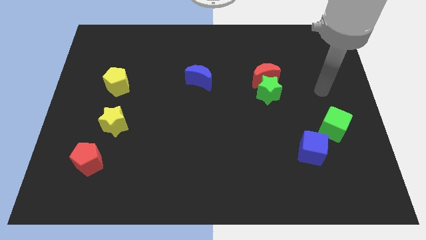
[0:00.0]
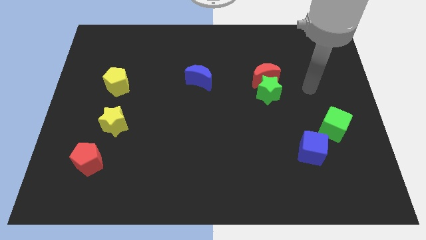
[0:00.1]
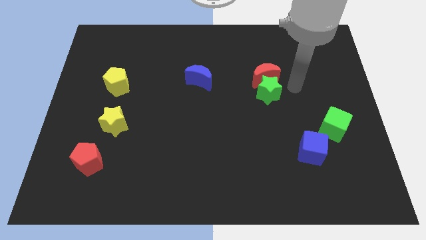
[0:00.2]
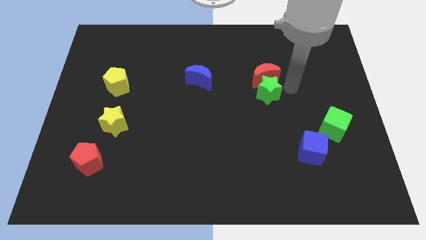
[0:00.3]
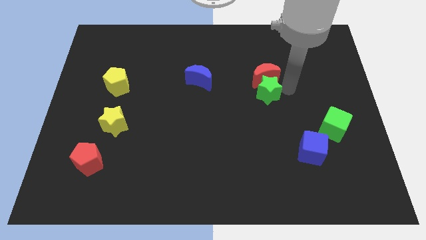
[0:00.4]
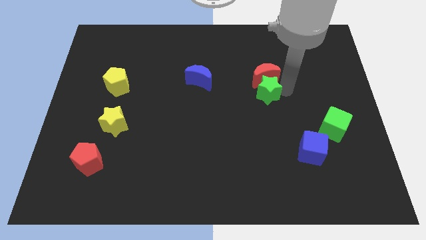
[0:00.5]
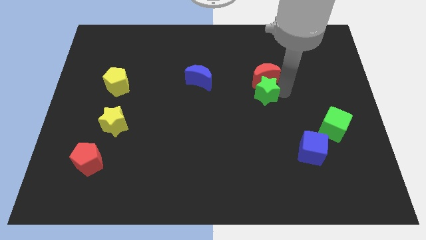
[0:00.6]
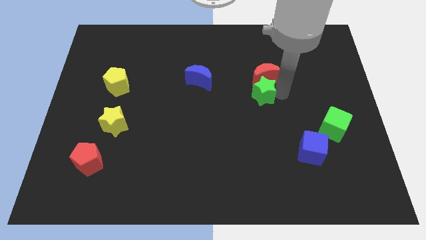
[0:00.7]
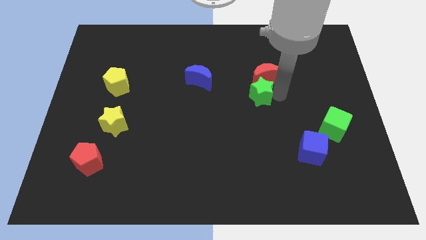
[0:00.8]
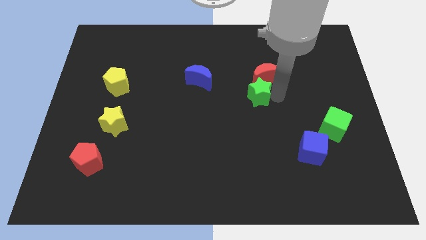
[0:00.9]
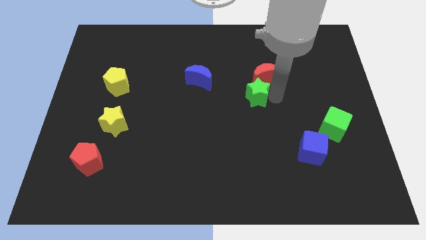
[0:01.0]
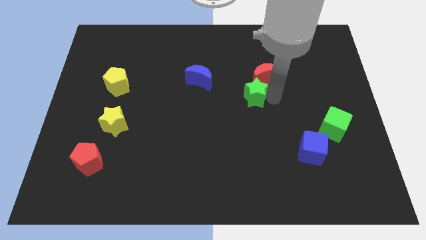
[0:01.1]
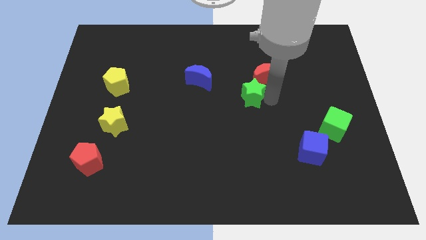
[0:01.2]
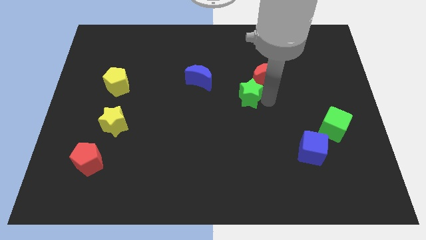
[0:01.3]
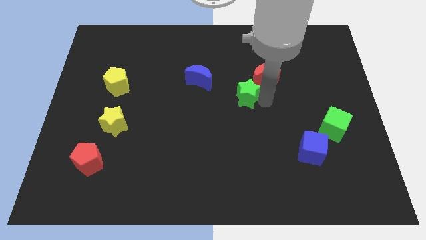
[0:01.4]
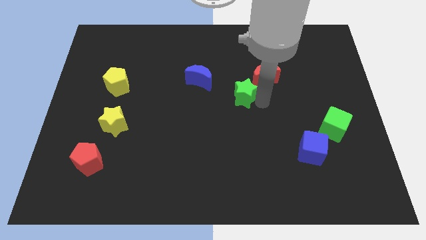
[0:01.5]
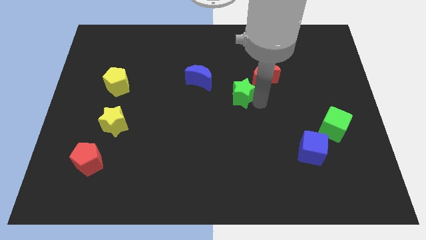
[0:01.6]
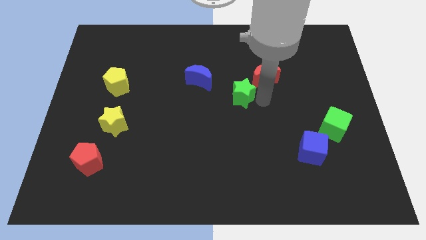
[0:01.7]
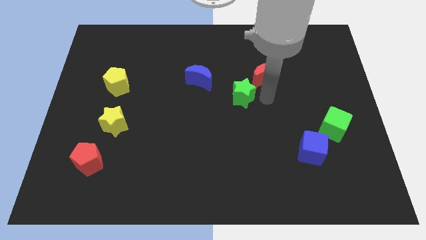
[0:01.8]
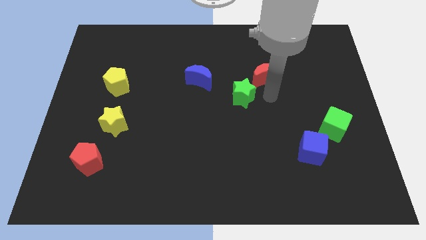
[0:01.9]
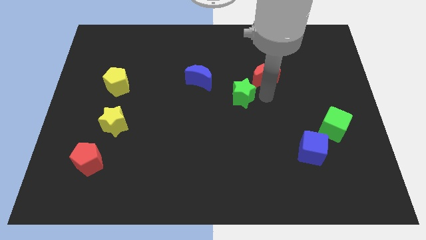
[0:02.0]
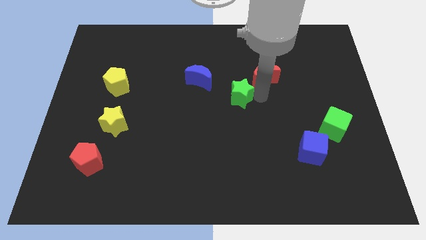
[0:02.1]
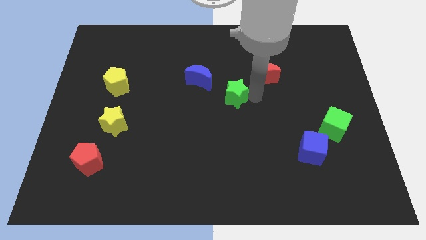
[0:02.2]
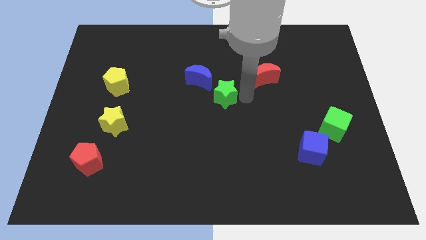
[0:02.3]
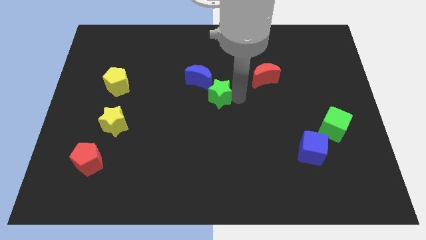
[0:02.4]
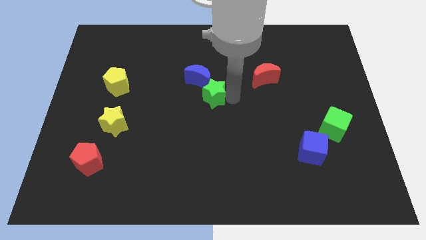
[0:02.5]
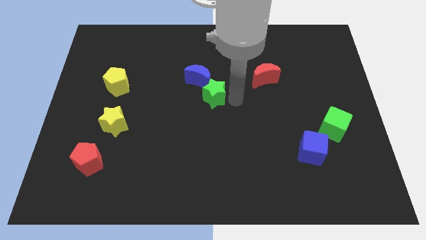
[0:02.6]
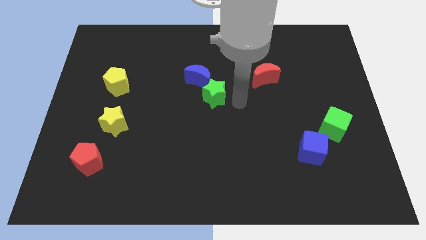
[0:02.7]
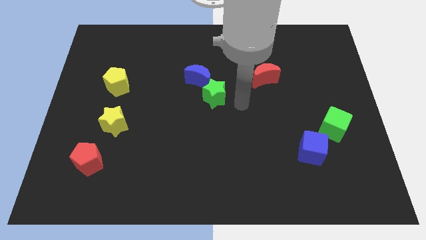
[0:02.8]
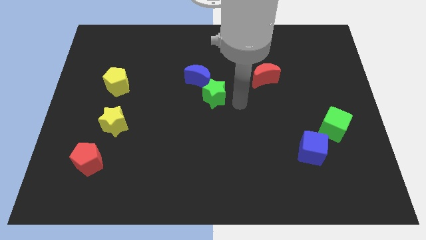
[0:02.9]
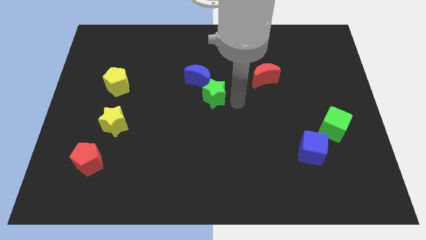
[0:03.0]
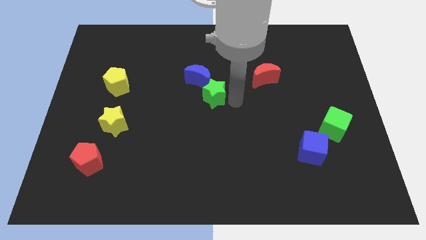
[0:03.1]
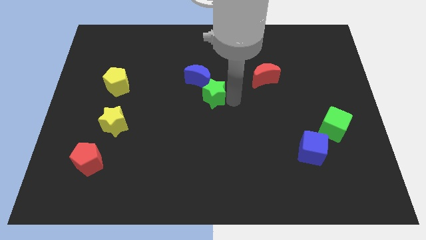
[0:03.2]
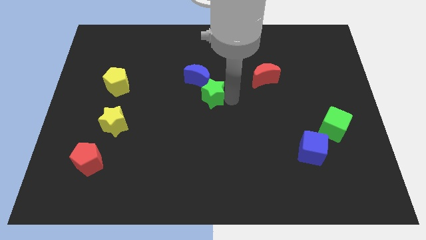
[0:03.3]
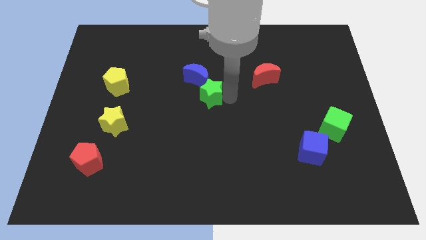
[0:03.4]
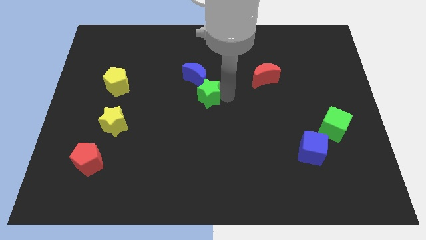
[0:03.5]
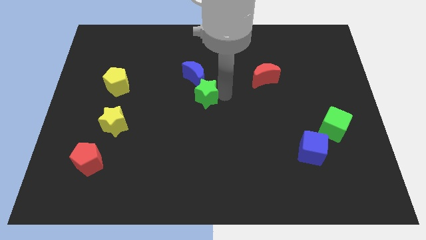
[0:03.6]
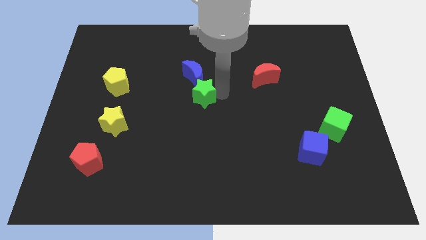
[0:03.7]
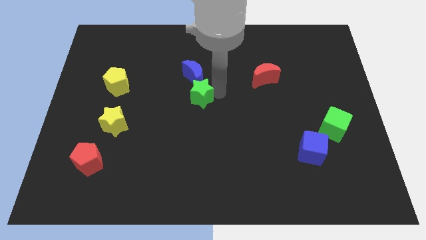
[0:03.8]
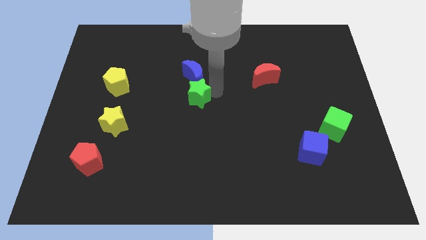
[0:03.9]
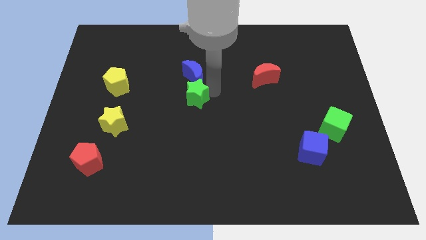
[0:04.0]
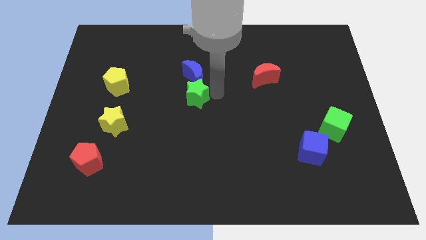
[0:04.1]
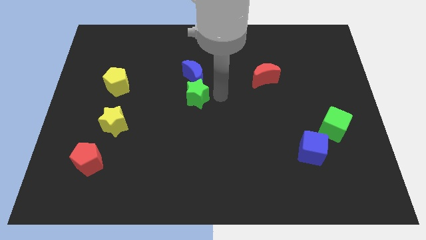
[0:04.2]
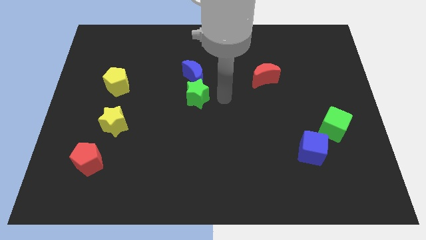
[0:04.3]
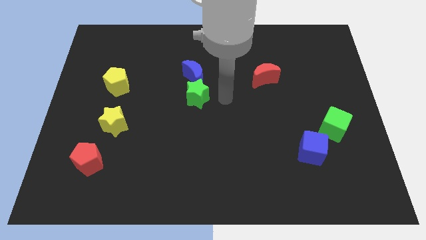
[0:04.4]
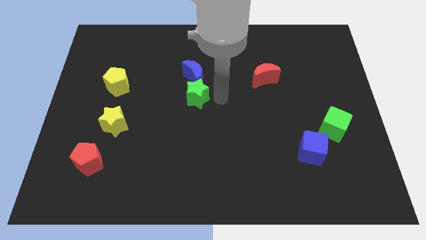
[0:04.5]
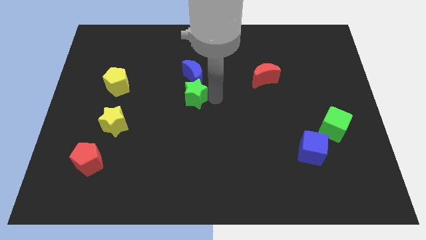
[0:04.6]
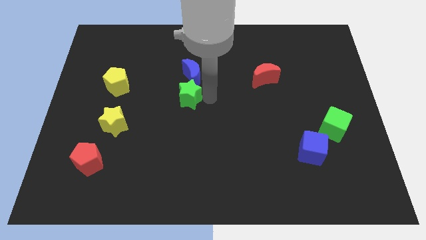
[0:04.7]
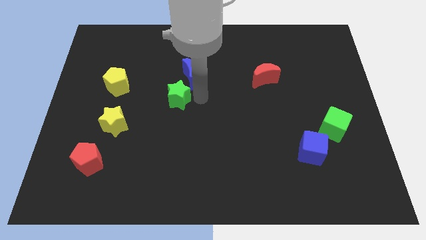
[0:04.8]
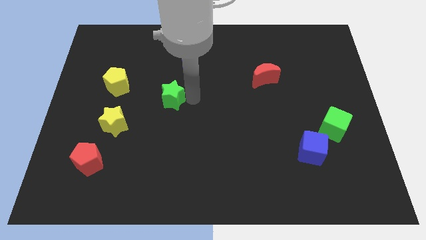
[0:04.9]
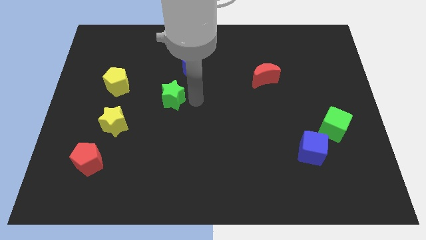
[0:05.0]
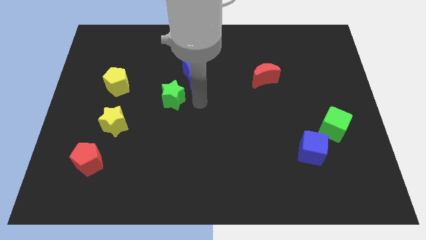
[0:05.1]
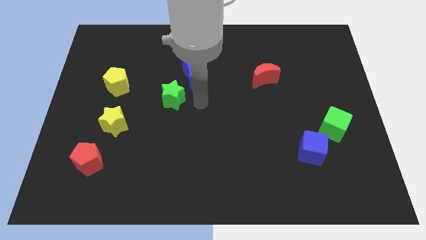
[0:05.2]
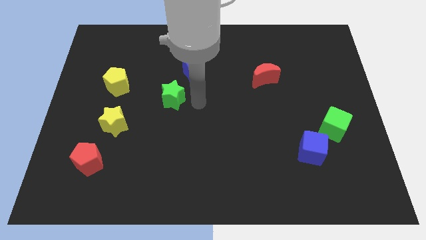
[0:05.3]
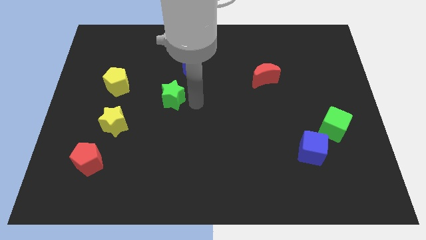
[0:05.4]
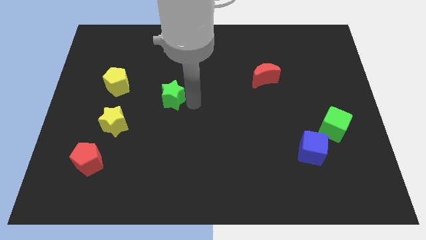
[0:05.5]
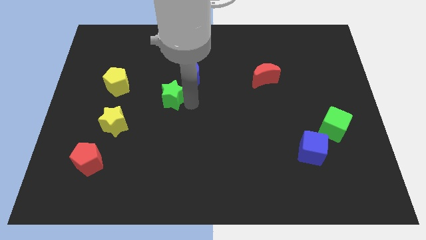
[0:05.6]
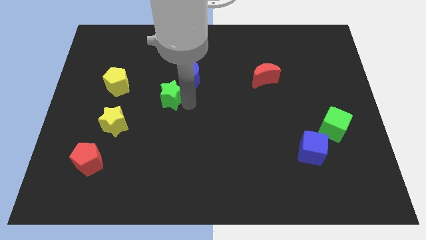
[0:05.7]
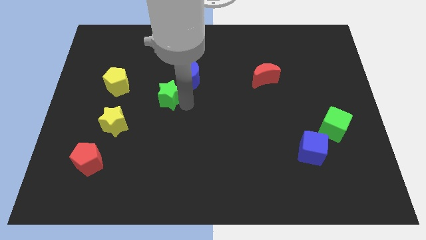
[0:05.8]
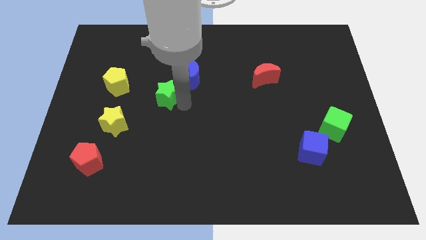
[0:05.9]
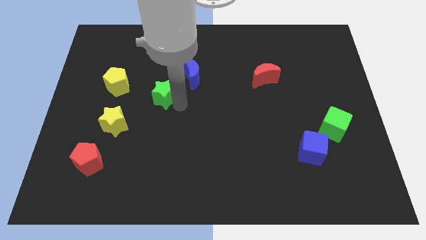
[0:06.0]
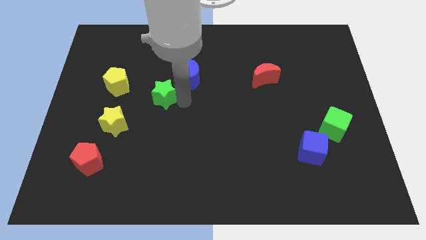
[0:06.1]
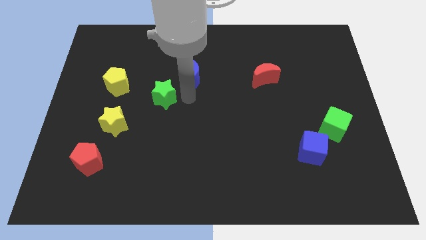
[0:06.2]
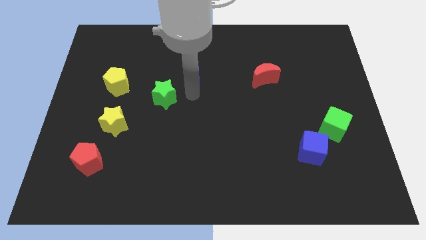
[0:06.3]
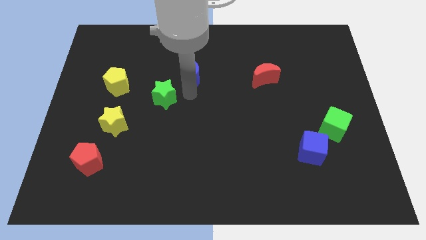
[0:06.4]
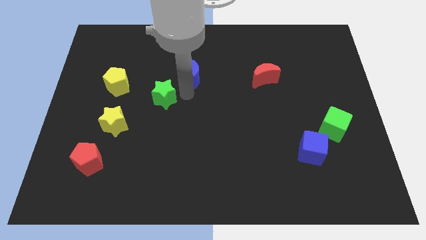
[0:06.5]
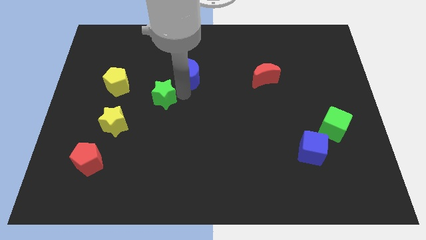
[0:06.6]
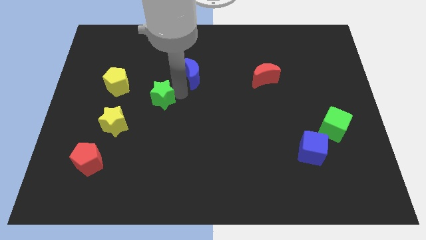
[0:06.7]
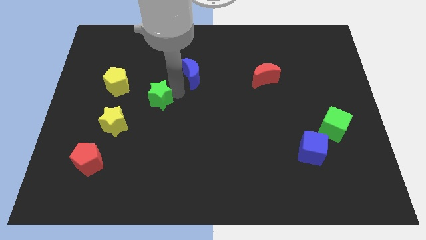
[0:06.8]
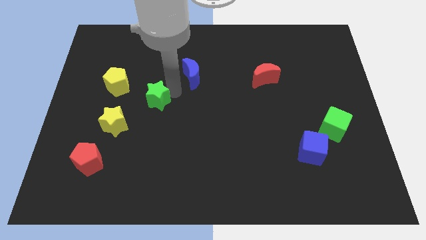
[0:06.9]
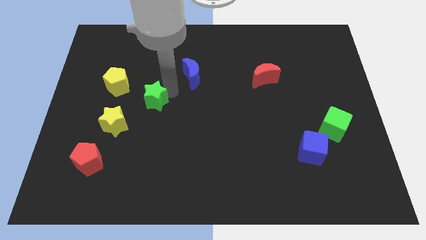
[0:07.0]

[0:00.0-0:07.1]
put the green star to the bottom right side of the yellow pentagon
